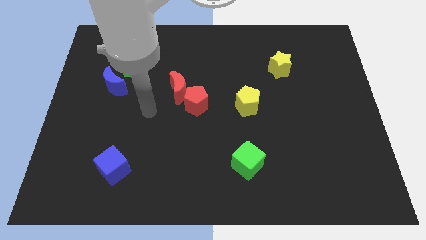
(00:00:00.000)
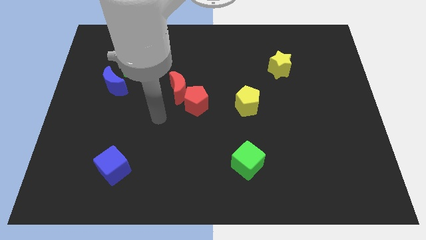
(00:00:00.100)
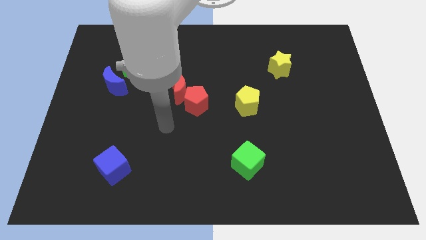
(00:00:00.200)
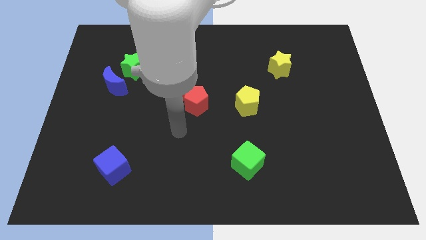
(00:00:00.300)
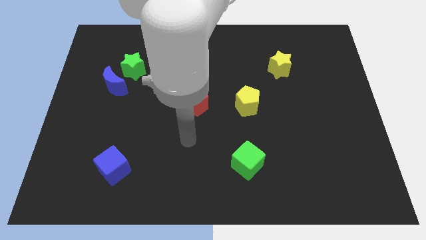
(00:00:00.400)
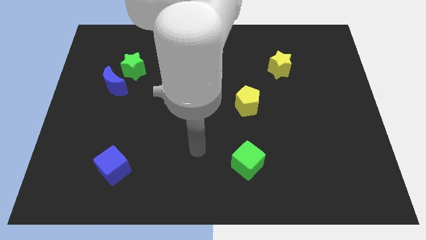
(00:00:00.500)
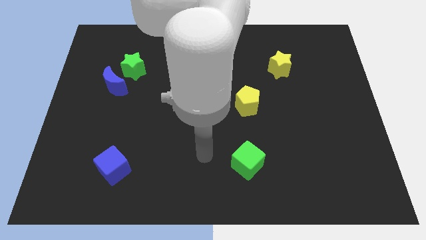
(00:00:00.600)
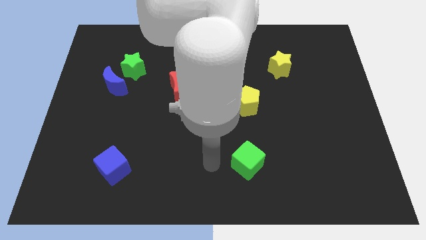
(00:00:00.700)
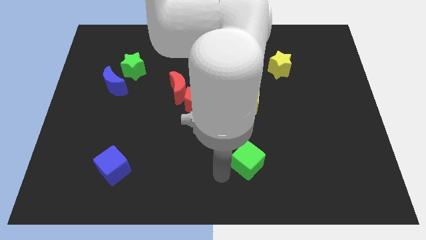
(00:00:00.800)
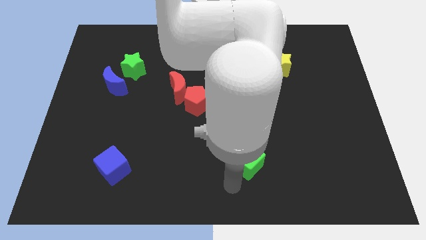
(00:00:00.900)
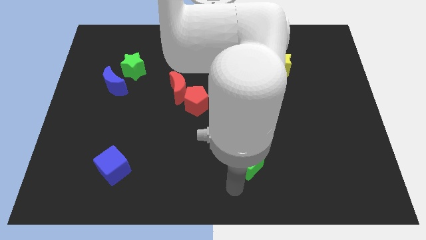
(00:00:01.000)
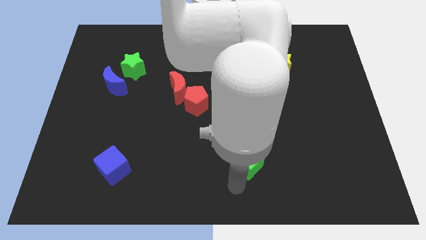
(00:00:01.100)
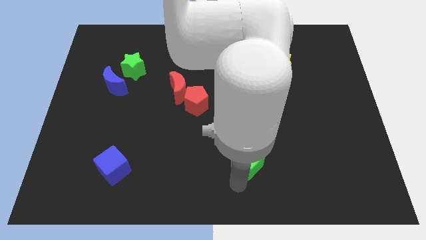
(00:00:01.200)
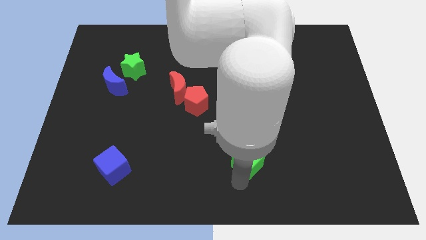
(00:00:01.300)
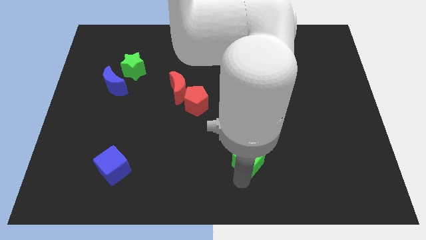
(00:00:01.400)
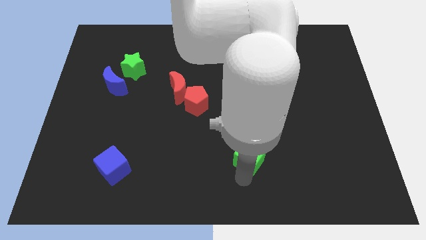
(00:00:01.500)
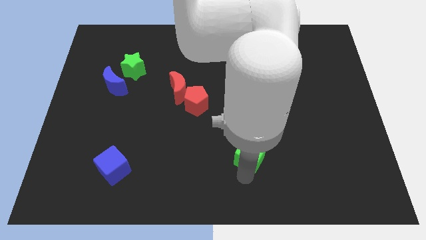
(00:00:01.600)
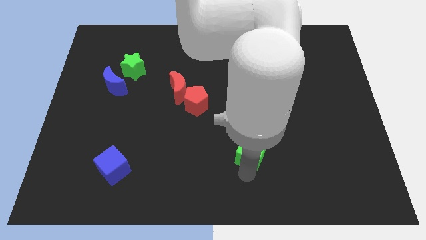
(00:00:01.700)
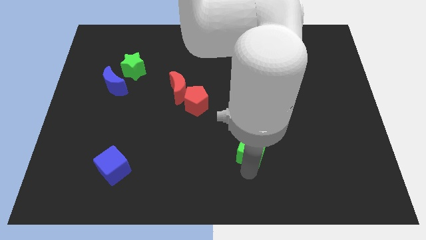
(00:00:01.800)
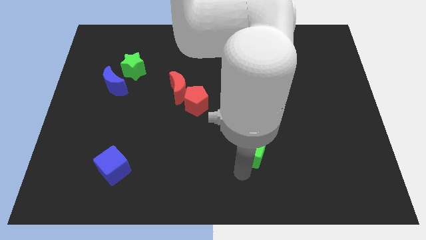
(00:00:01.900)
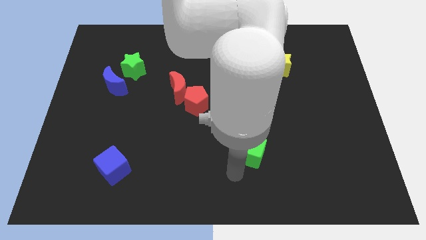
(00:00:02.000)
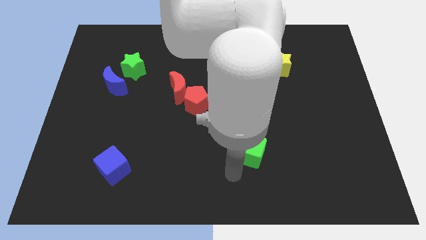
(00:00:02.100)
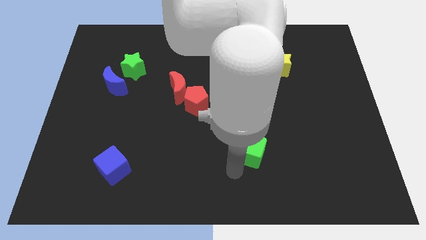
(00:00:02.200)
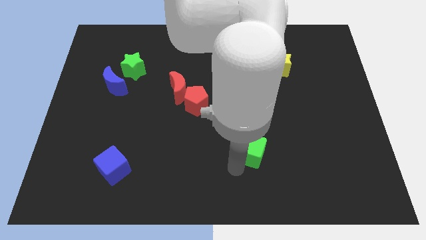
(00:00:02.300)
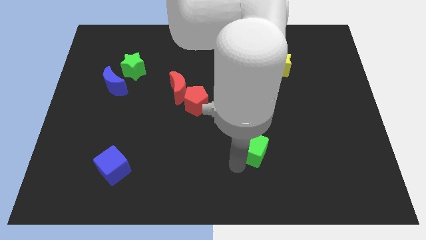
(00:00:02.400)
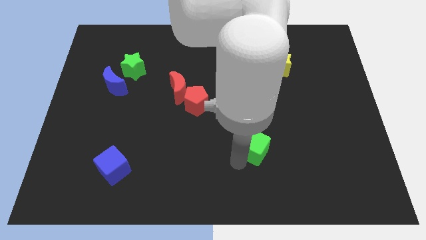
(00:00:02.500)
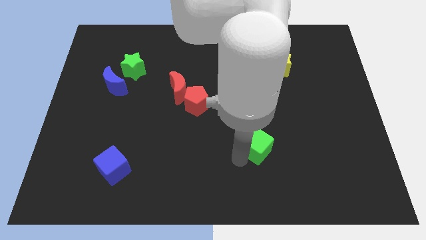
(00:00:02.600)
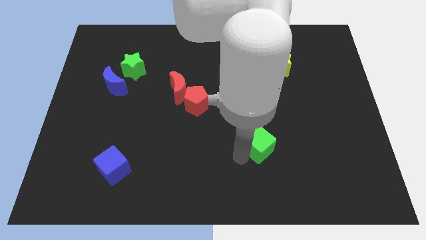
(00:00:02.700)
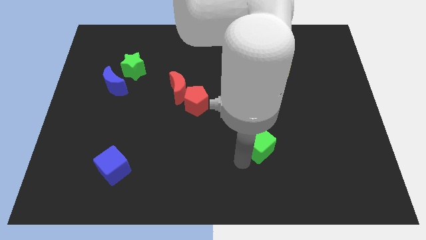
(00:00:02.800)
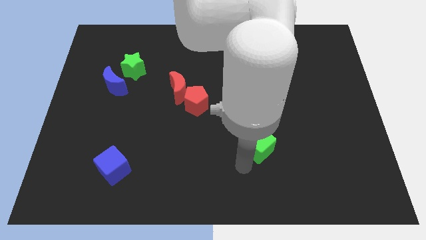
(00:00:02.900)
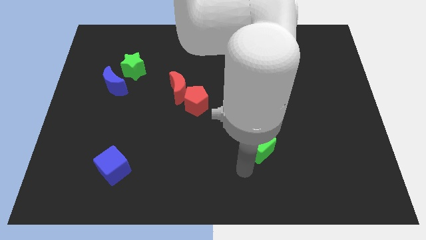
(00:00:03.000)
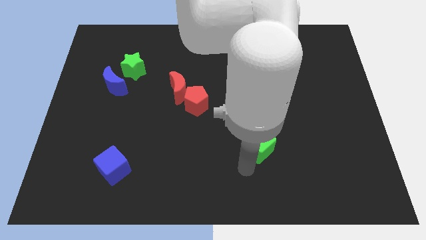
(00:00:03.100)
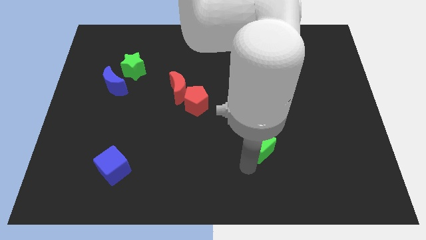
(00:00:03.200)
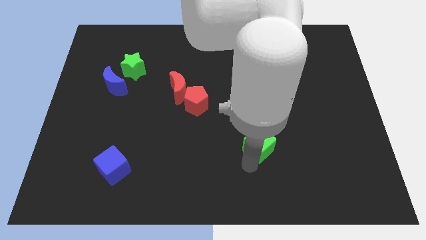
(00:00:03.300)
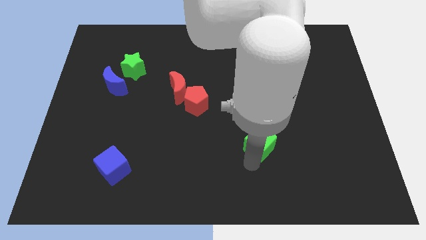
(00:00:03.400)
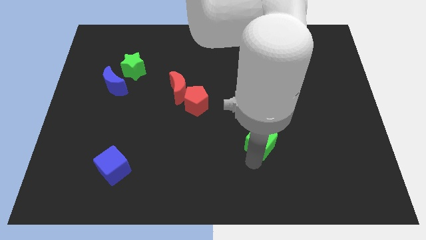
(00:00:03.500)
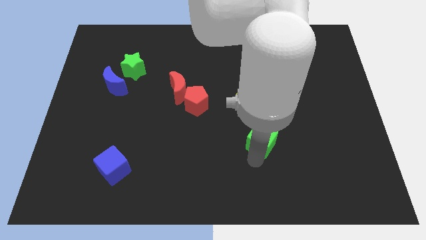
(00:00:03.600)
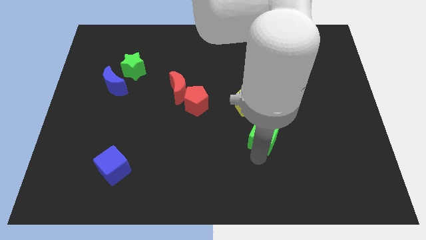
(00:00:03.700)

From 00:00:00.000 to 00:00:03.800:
slide the green cube upwards and to the right diagonally a little bit

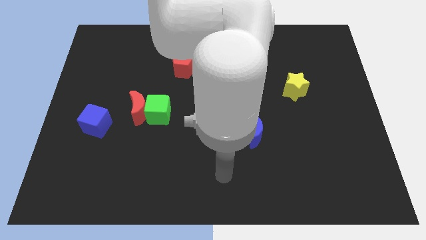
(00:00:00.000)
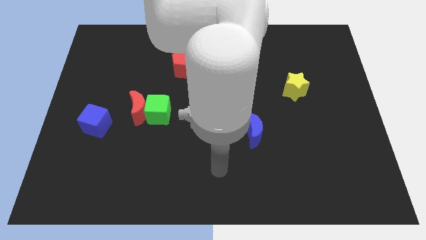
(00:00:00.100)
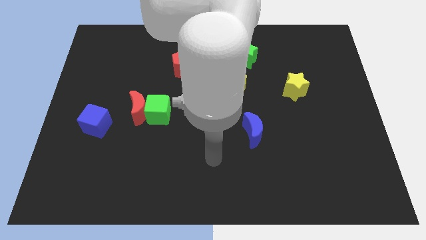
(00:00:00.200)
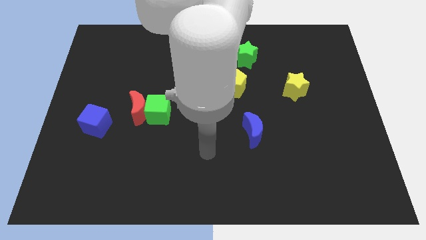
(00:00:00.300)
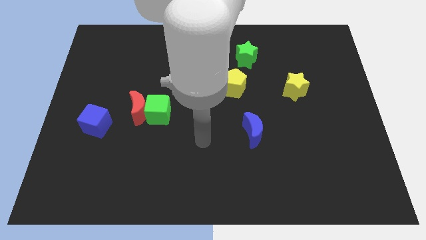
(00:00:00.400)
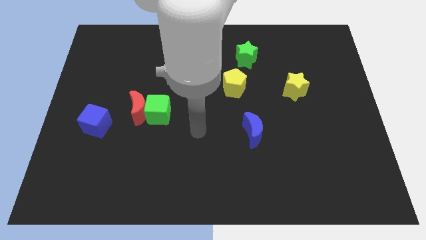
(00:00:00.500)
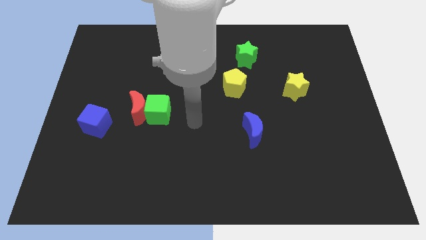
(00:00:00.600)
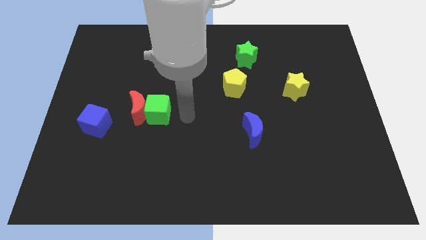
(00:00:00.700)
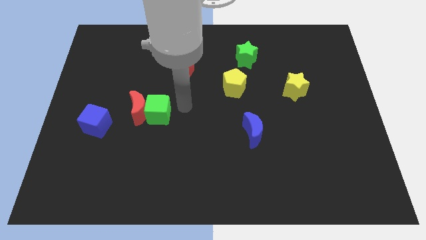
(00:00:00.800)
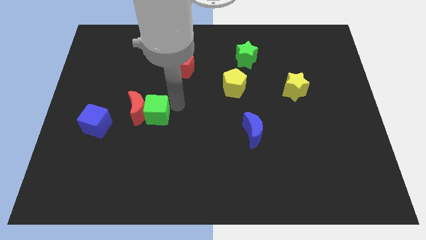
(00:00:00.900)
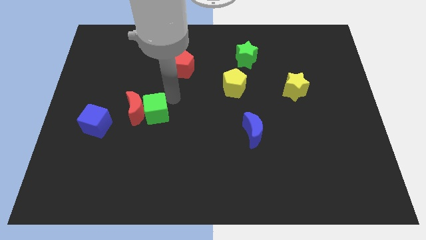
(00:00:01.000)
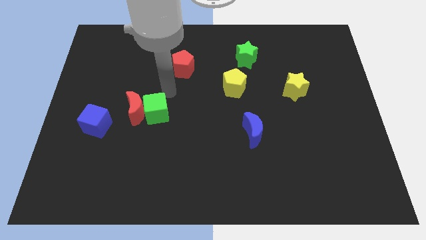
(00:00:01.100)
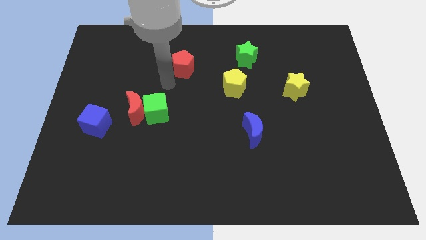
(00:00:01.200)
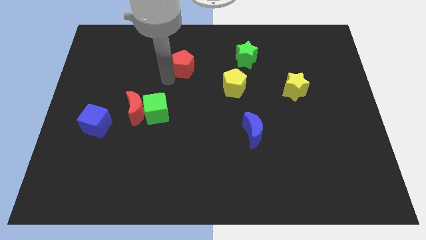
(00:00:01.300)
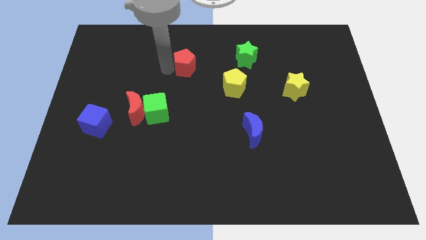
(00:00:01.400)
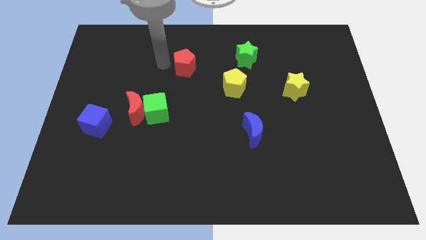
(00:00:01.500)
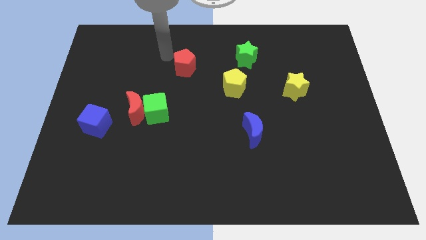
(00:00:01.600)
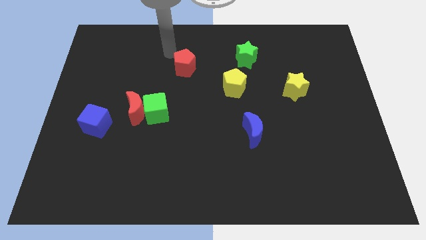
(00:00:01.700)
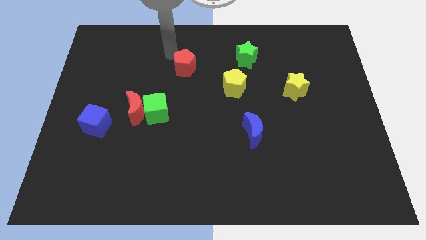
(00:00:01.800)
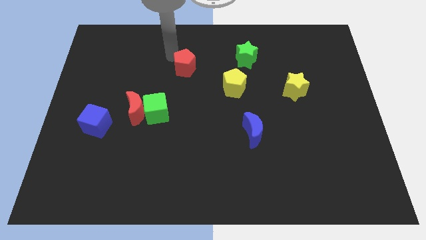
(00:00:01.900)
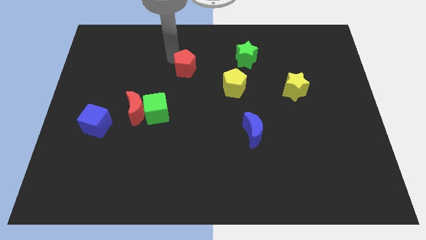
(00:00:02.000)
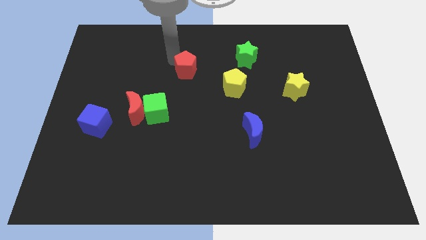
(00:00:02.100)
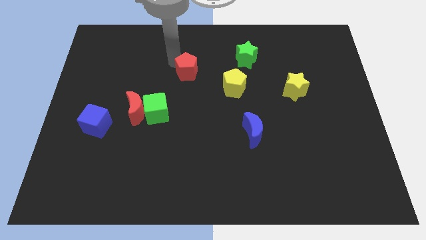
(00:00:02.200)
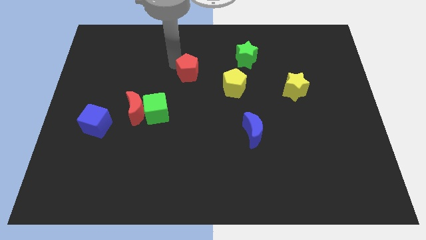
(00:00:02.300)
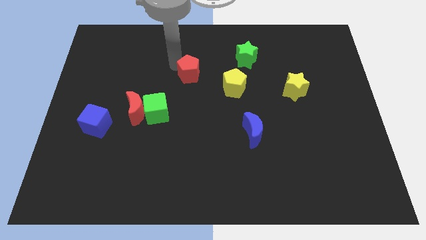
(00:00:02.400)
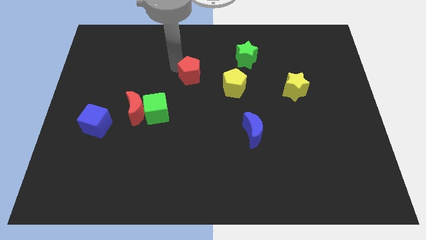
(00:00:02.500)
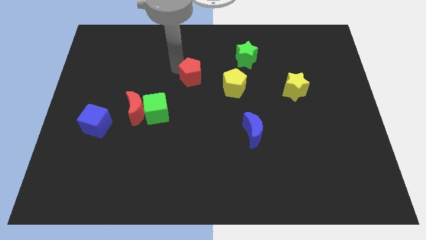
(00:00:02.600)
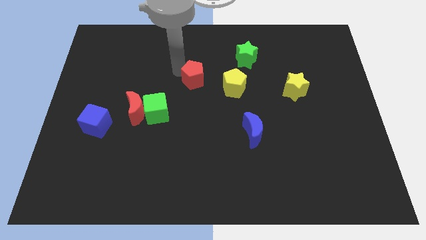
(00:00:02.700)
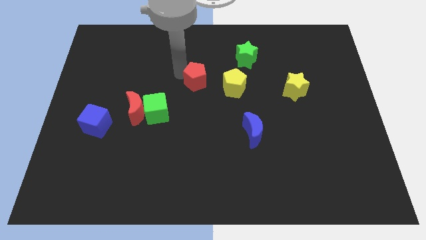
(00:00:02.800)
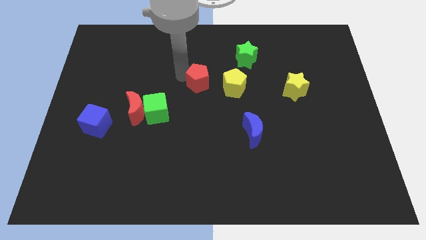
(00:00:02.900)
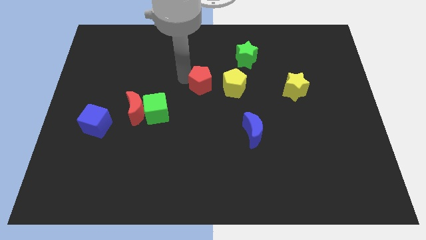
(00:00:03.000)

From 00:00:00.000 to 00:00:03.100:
slightly slide the red pentagon down and then right

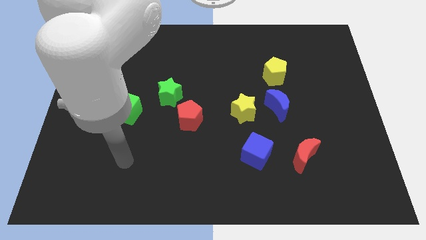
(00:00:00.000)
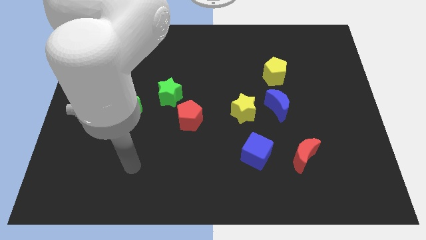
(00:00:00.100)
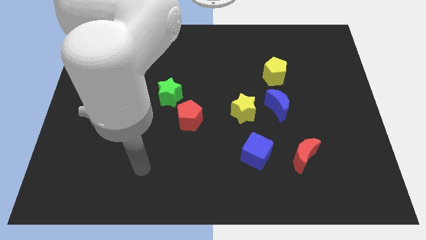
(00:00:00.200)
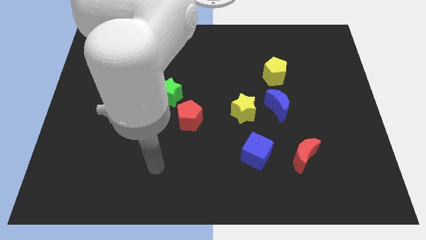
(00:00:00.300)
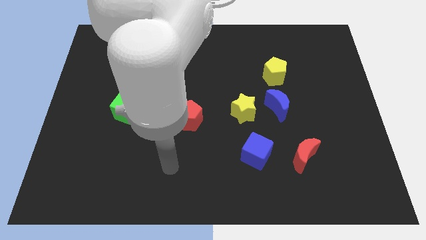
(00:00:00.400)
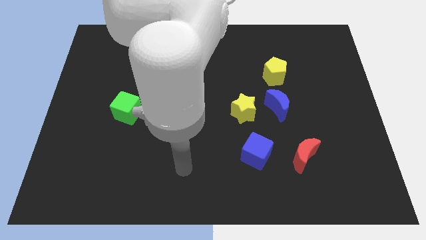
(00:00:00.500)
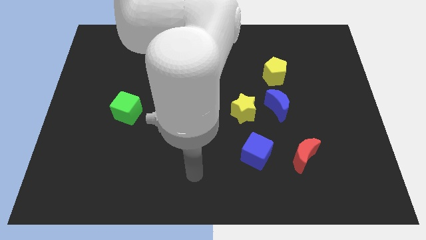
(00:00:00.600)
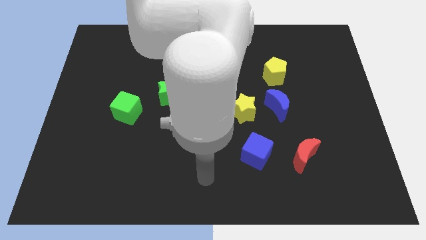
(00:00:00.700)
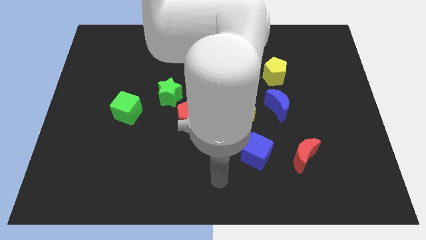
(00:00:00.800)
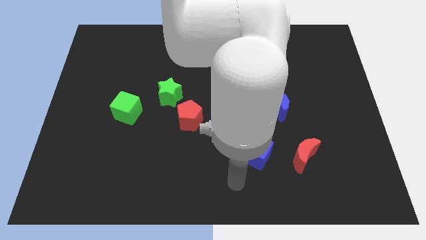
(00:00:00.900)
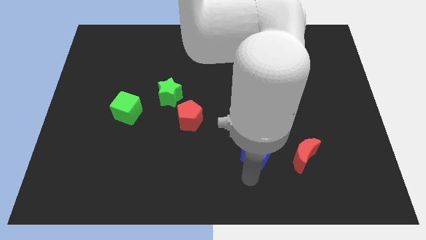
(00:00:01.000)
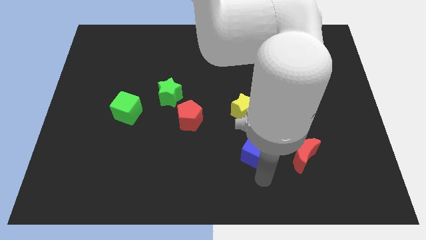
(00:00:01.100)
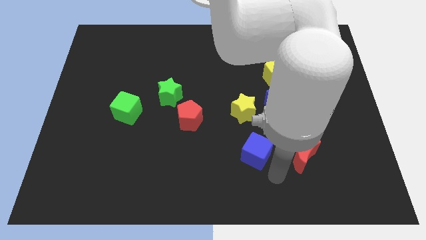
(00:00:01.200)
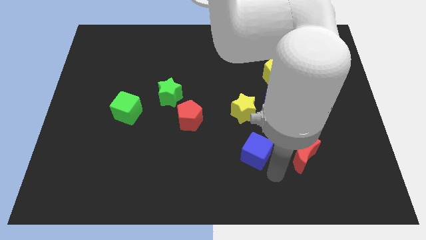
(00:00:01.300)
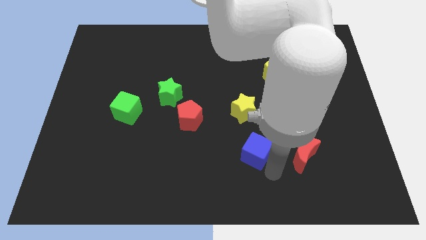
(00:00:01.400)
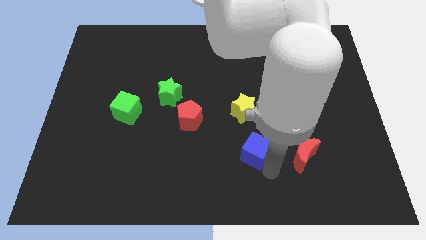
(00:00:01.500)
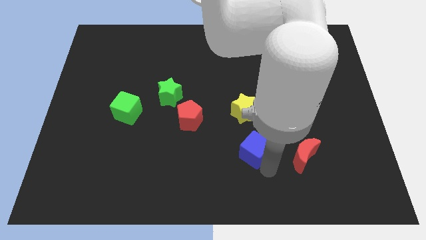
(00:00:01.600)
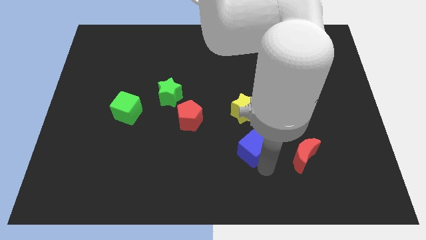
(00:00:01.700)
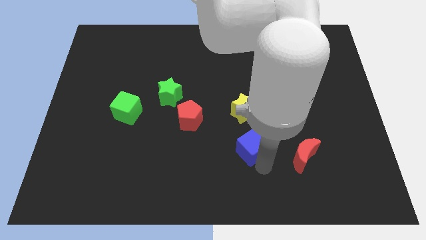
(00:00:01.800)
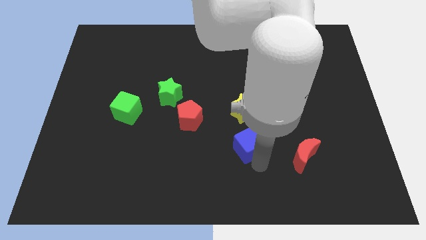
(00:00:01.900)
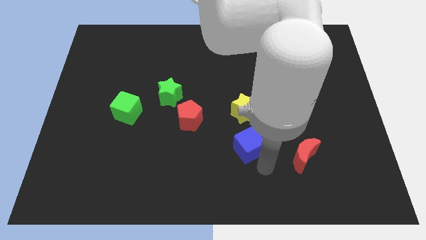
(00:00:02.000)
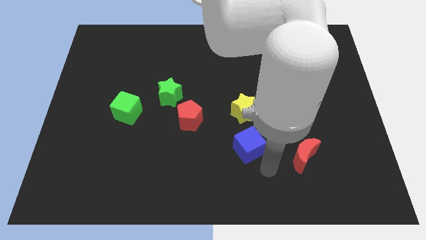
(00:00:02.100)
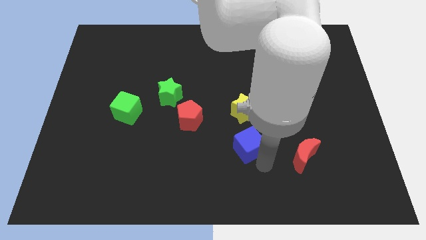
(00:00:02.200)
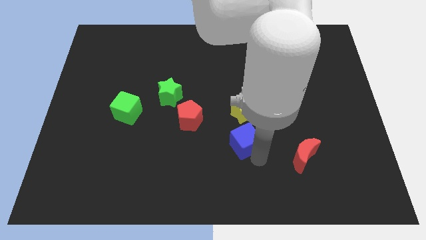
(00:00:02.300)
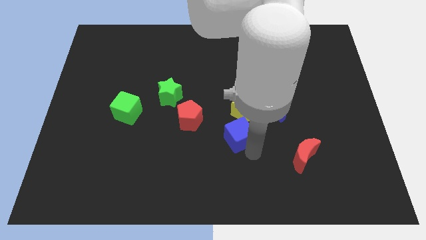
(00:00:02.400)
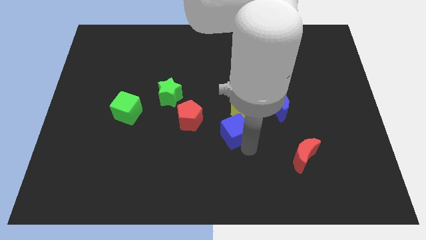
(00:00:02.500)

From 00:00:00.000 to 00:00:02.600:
slightly slide the blue cube up and left diagonally
